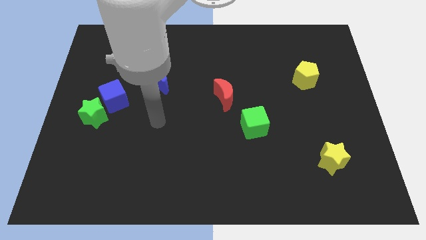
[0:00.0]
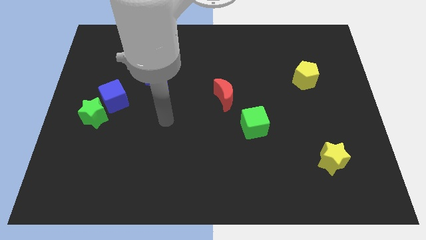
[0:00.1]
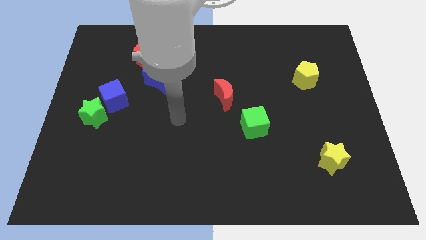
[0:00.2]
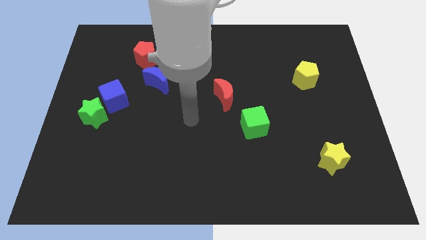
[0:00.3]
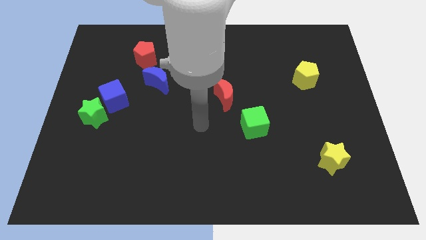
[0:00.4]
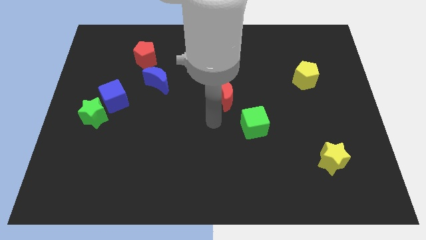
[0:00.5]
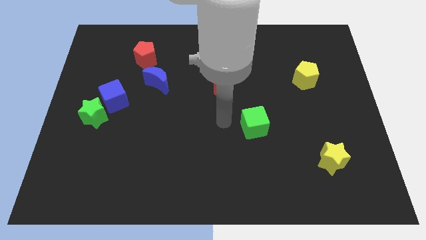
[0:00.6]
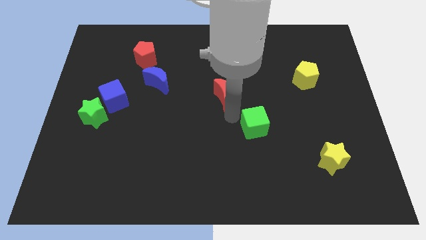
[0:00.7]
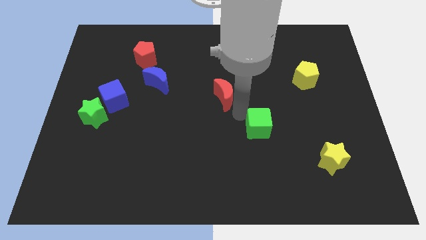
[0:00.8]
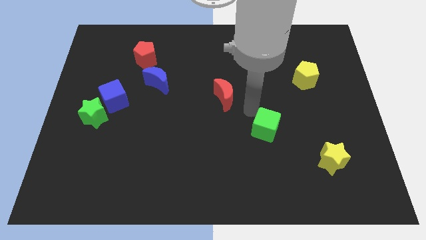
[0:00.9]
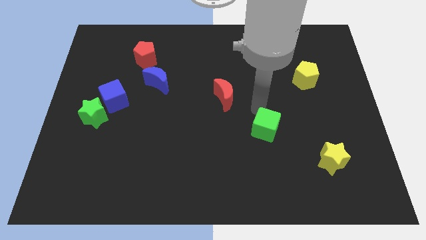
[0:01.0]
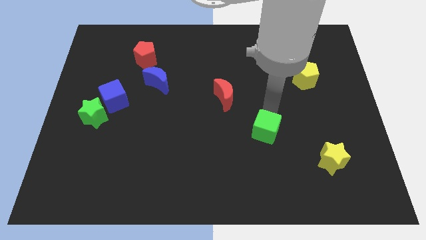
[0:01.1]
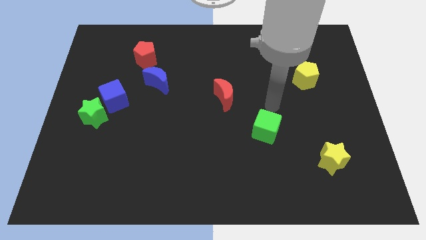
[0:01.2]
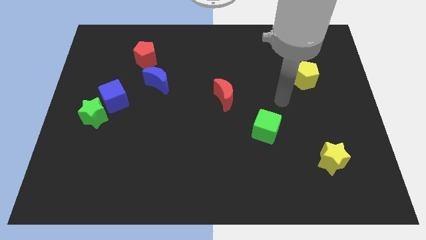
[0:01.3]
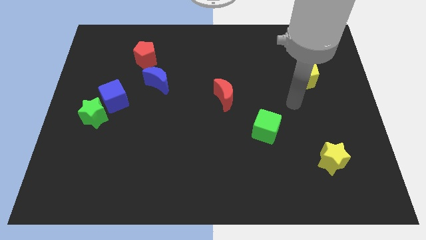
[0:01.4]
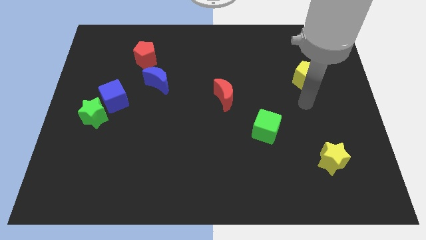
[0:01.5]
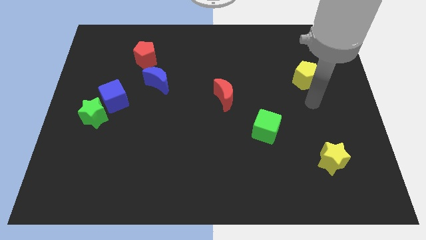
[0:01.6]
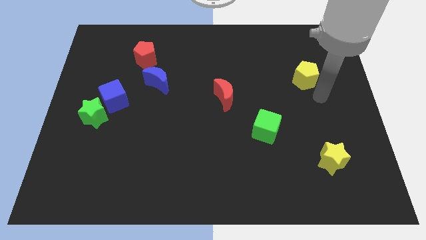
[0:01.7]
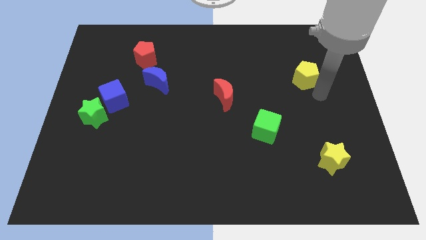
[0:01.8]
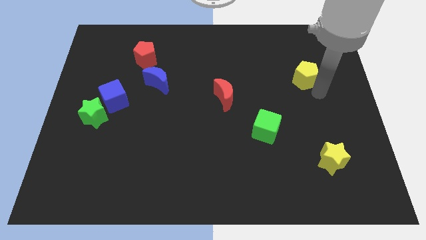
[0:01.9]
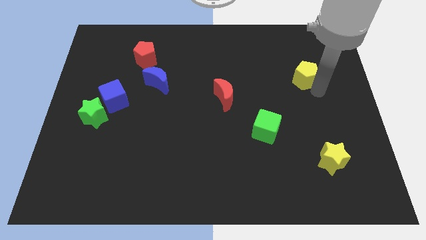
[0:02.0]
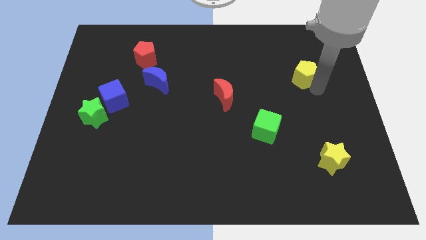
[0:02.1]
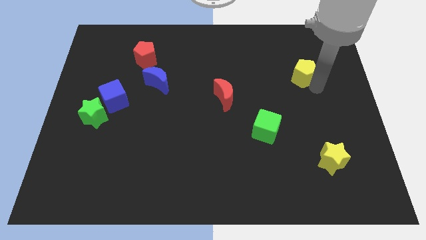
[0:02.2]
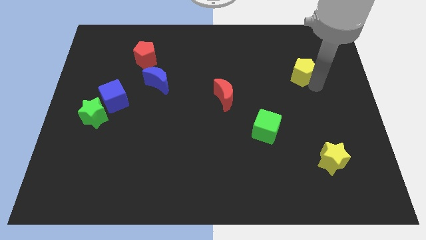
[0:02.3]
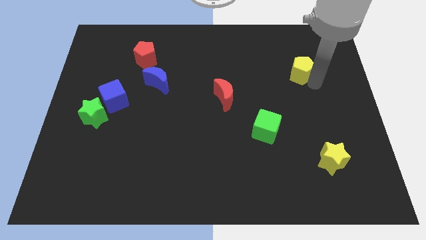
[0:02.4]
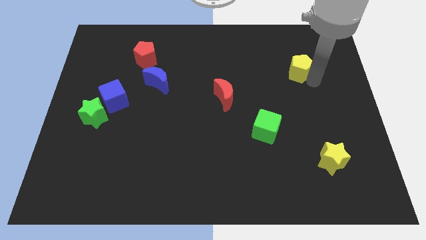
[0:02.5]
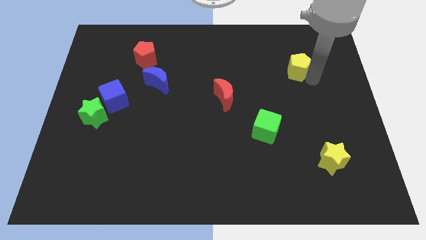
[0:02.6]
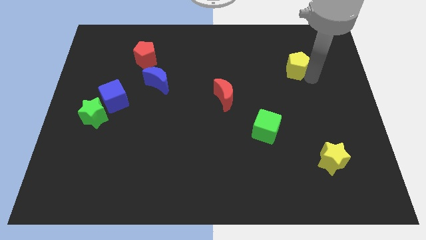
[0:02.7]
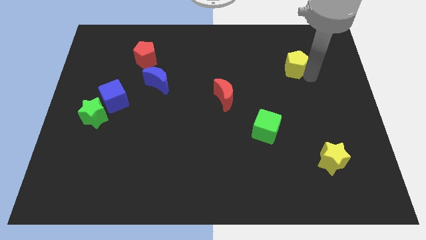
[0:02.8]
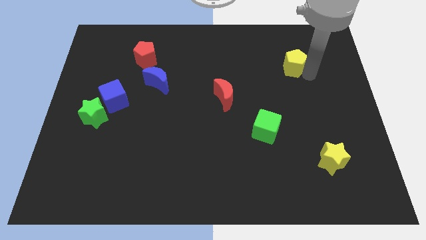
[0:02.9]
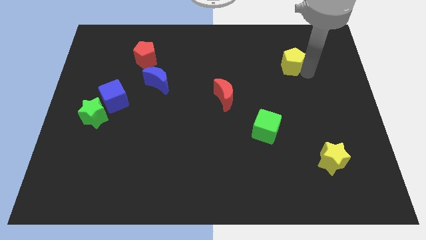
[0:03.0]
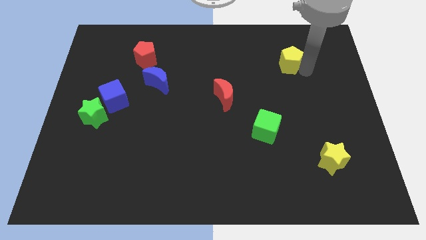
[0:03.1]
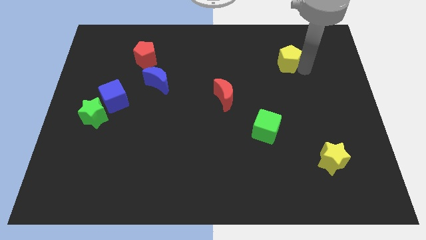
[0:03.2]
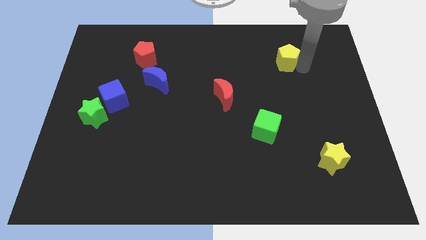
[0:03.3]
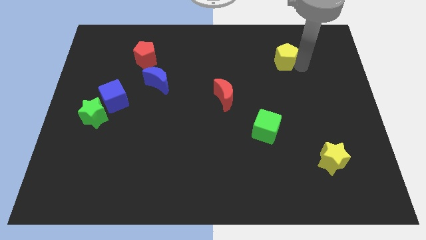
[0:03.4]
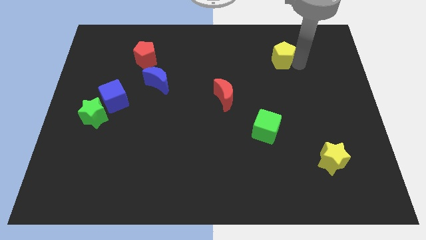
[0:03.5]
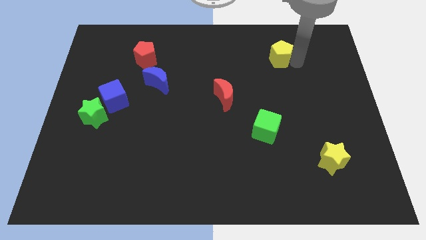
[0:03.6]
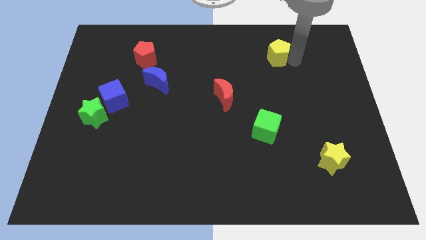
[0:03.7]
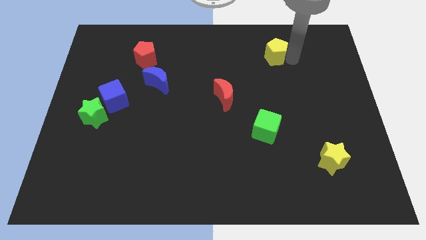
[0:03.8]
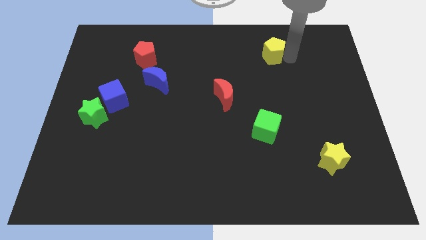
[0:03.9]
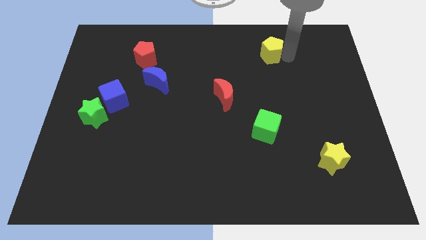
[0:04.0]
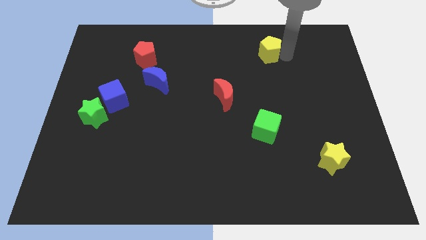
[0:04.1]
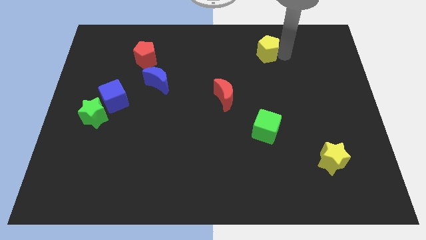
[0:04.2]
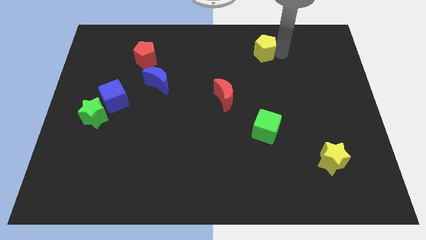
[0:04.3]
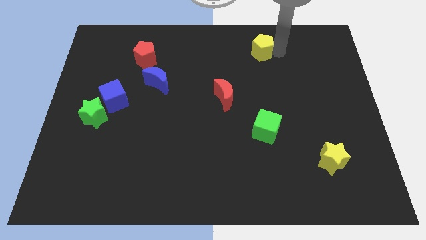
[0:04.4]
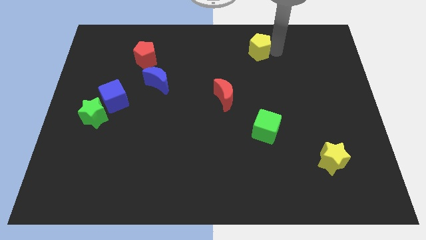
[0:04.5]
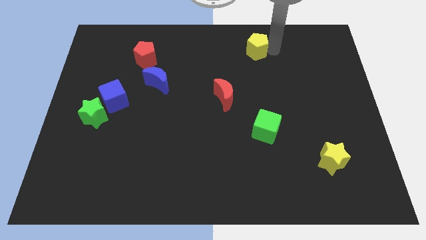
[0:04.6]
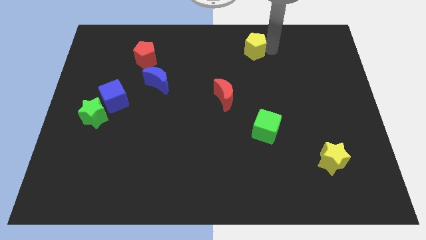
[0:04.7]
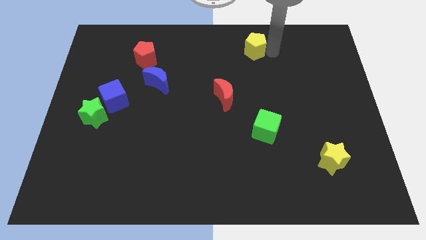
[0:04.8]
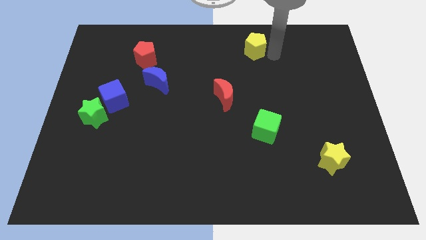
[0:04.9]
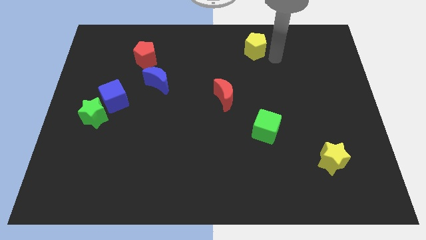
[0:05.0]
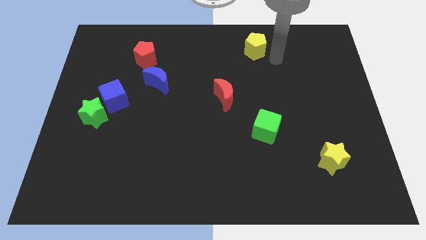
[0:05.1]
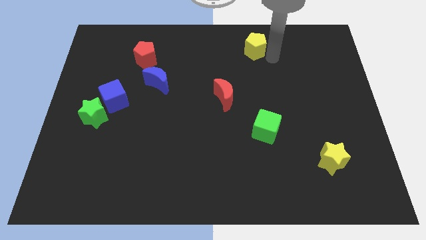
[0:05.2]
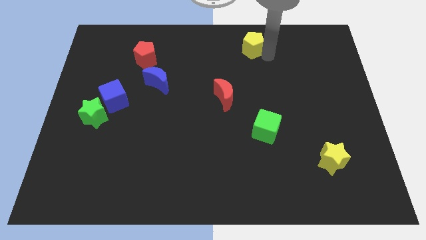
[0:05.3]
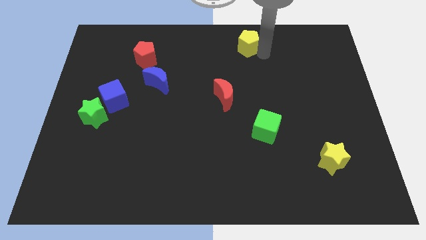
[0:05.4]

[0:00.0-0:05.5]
move the yellow pentagon to the towards your base

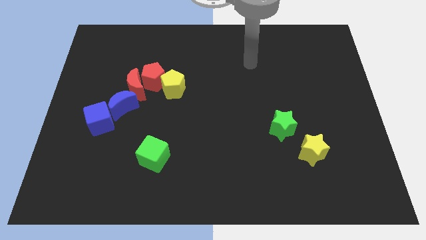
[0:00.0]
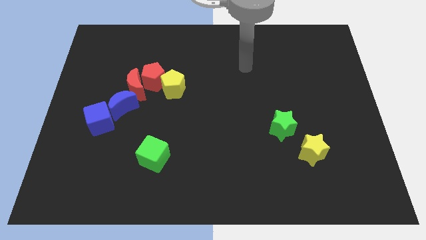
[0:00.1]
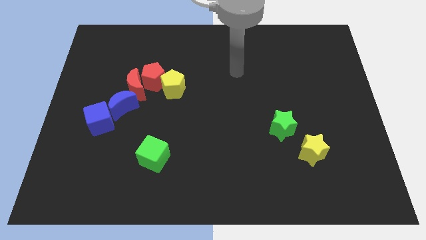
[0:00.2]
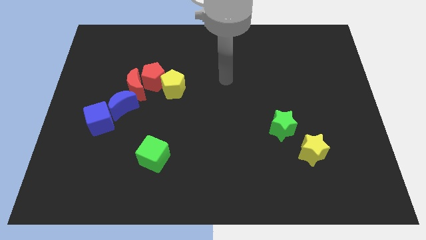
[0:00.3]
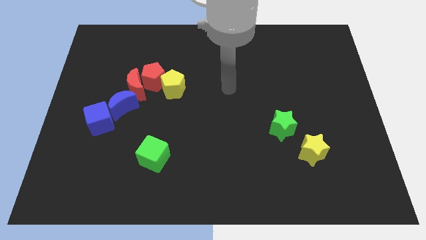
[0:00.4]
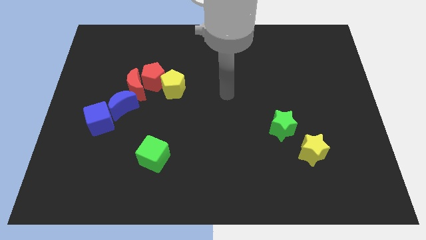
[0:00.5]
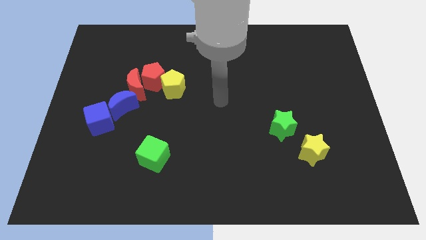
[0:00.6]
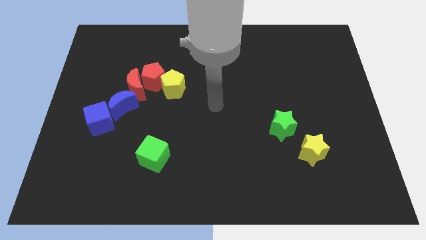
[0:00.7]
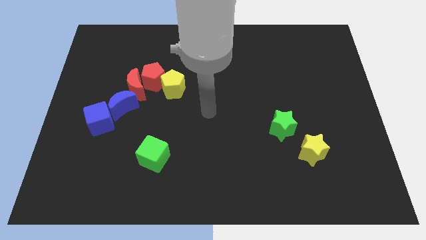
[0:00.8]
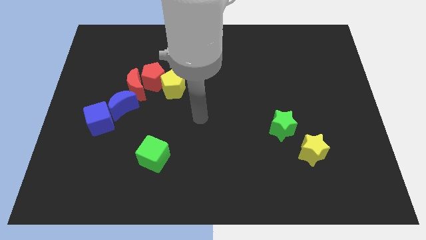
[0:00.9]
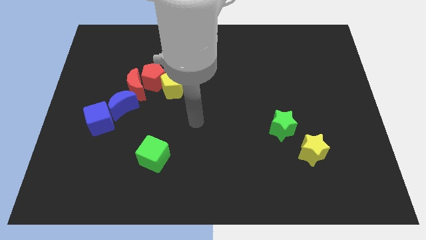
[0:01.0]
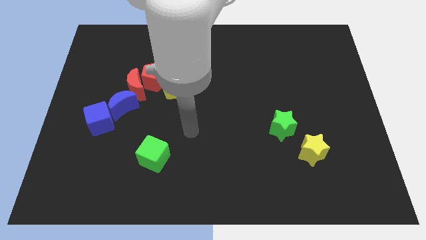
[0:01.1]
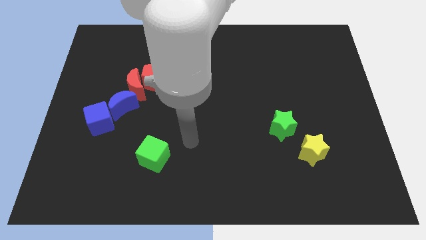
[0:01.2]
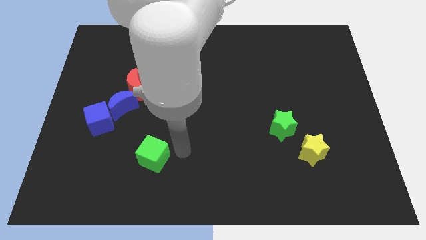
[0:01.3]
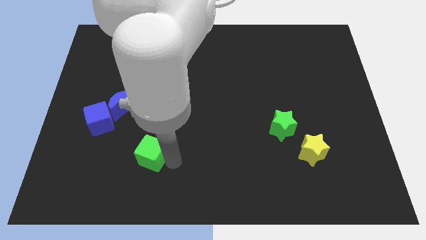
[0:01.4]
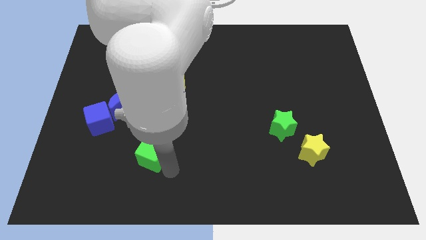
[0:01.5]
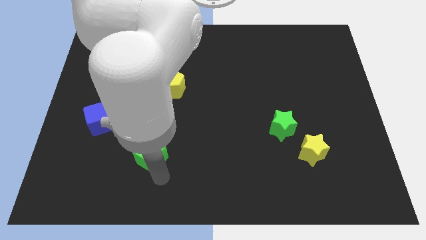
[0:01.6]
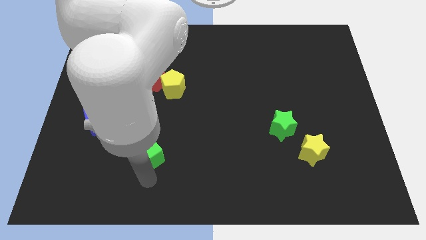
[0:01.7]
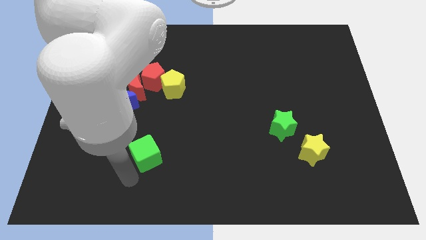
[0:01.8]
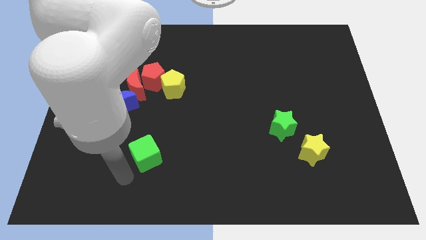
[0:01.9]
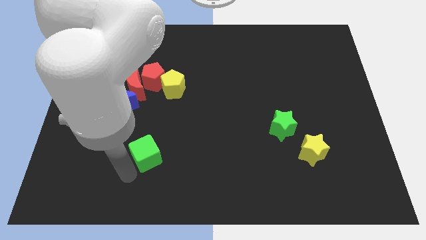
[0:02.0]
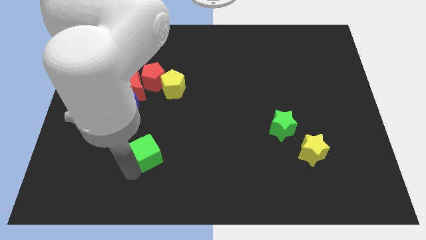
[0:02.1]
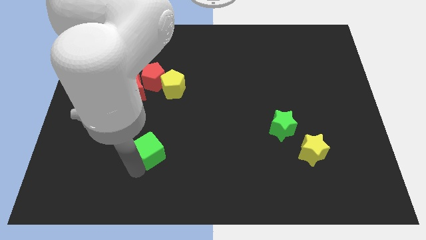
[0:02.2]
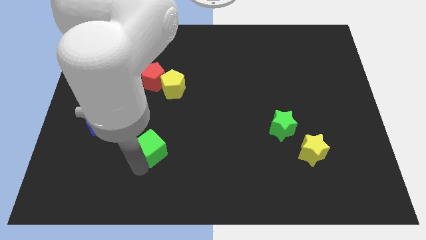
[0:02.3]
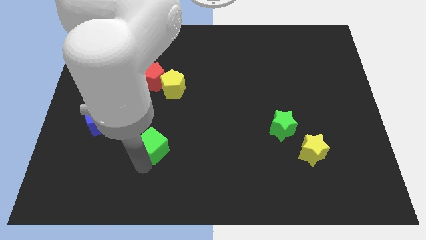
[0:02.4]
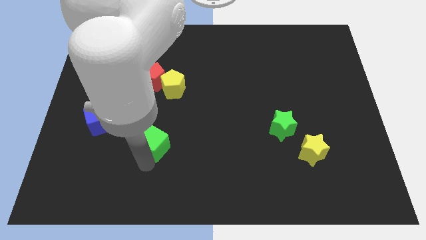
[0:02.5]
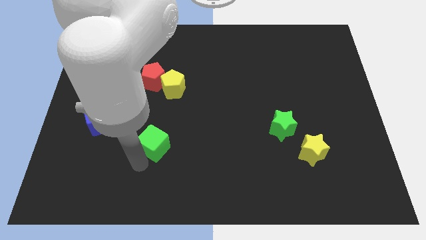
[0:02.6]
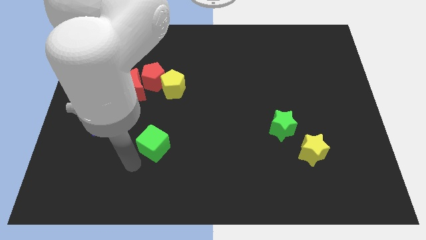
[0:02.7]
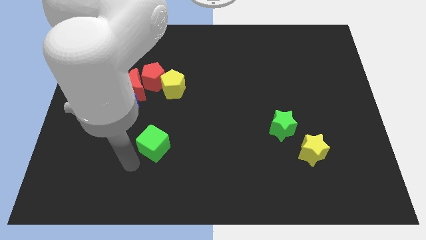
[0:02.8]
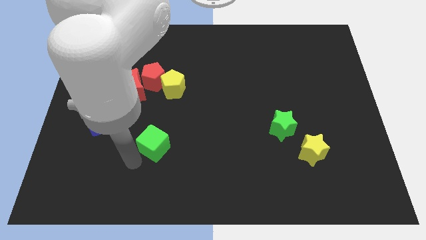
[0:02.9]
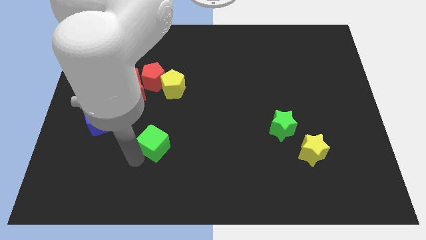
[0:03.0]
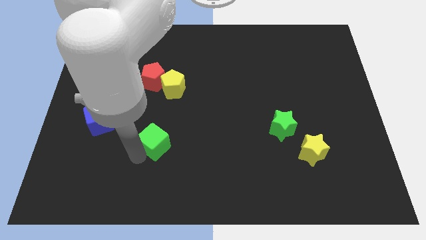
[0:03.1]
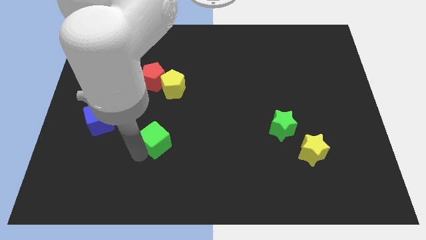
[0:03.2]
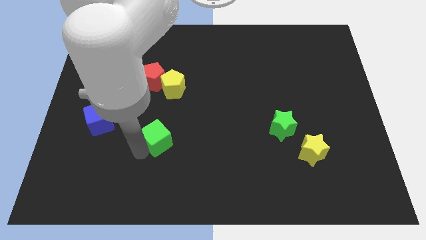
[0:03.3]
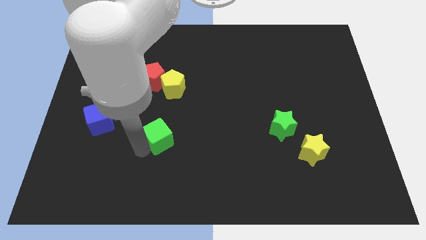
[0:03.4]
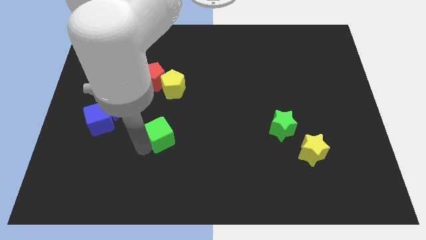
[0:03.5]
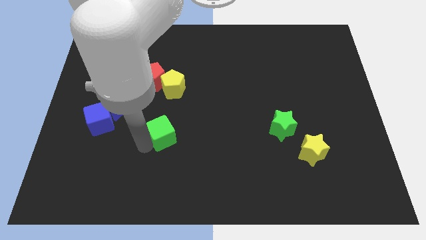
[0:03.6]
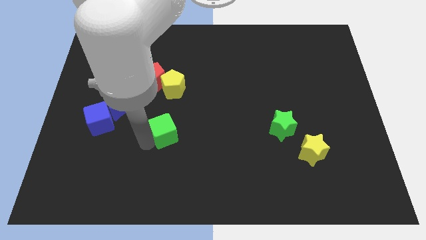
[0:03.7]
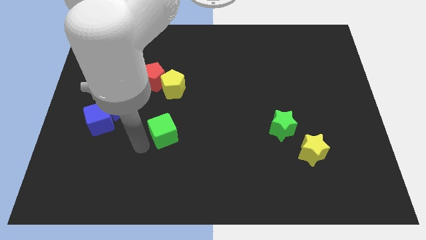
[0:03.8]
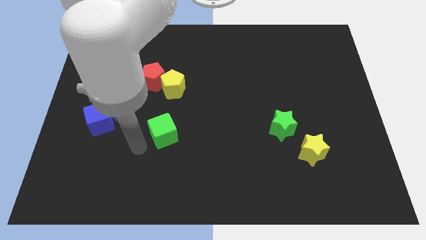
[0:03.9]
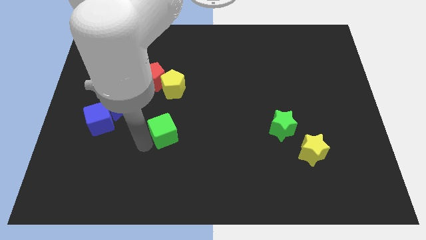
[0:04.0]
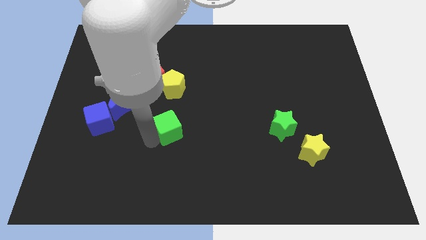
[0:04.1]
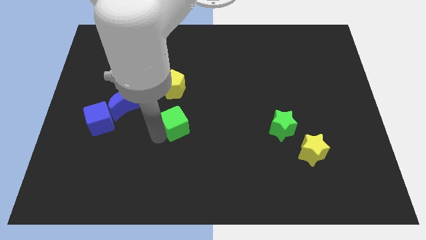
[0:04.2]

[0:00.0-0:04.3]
move the green cube to the middle of the board
